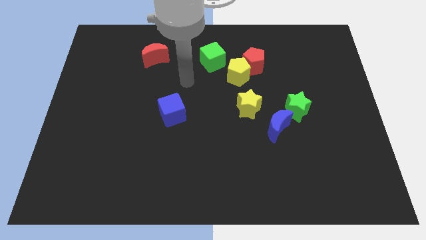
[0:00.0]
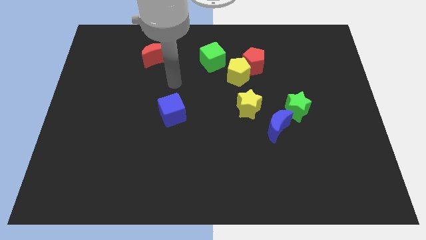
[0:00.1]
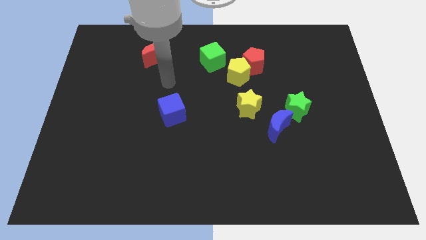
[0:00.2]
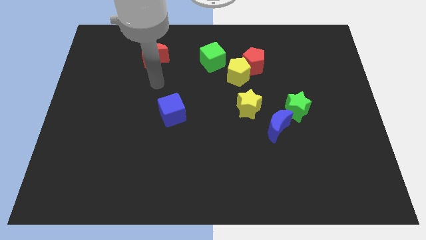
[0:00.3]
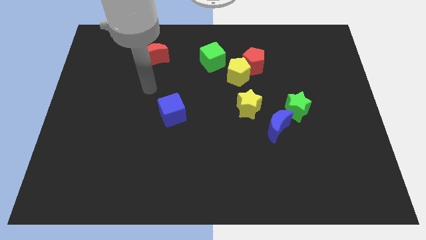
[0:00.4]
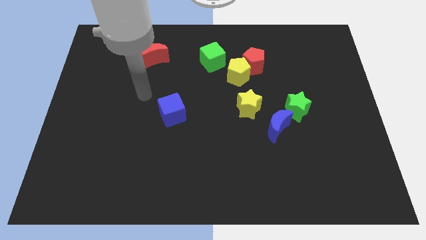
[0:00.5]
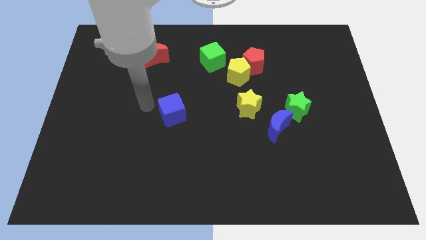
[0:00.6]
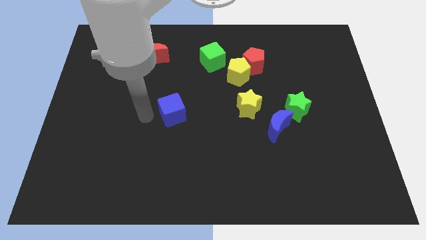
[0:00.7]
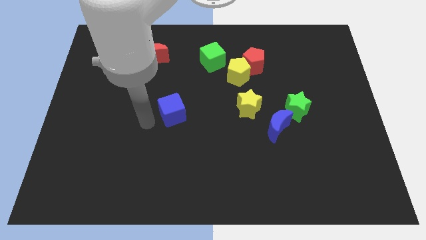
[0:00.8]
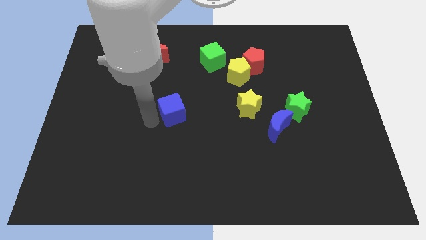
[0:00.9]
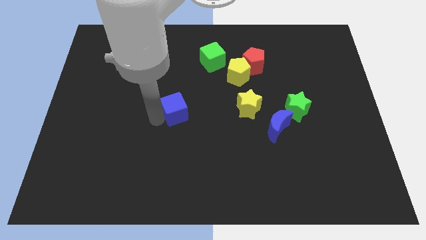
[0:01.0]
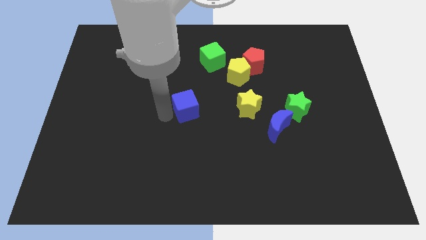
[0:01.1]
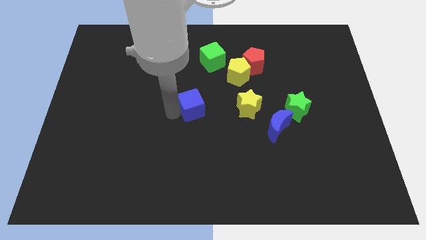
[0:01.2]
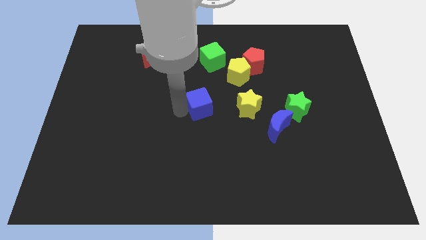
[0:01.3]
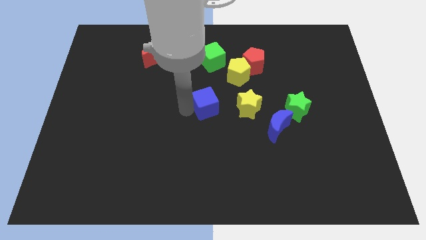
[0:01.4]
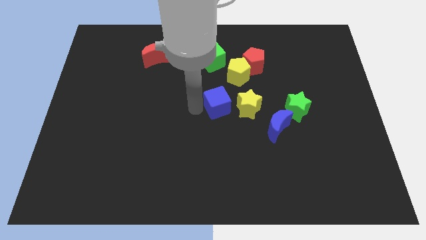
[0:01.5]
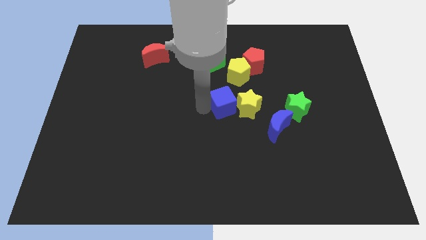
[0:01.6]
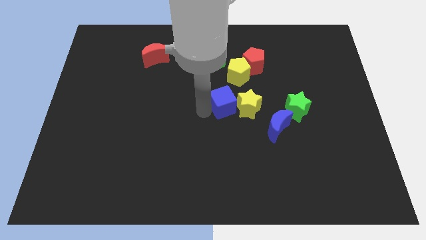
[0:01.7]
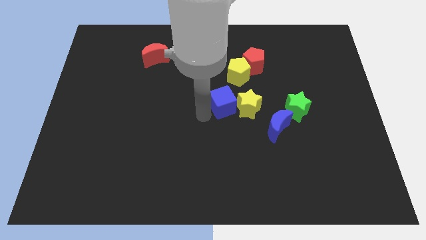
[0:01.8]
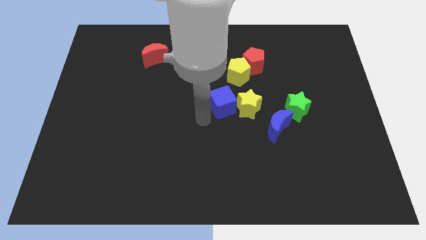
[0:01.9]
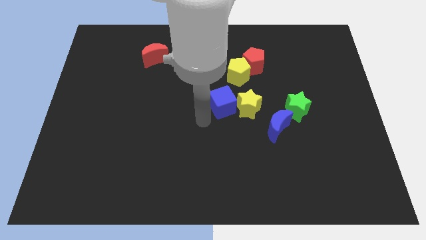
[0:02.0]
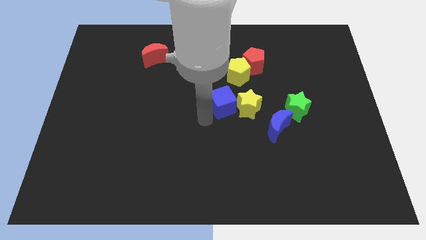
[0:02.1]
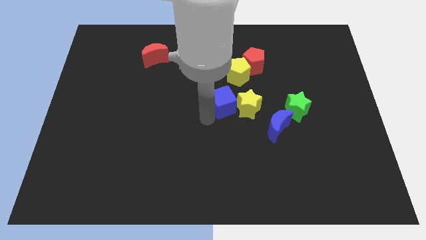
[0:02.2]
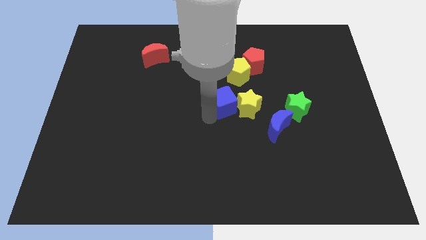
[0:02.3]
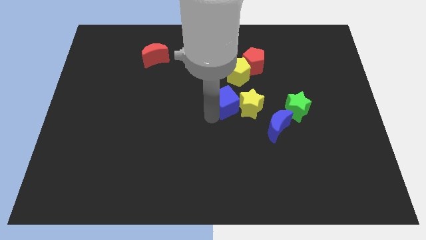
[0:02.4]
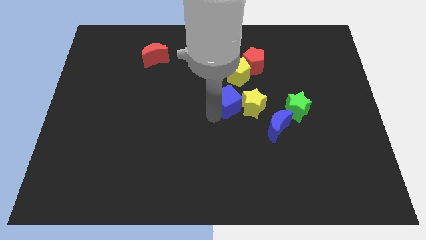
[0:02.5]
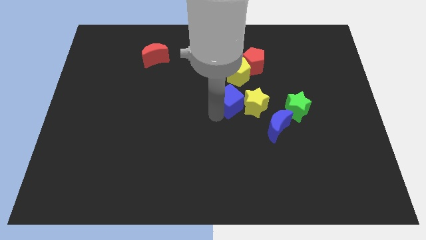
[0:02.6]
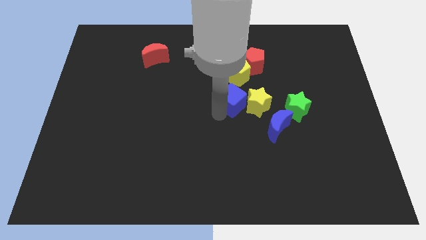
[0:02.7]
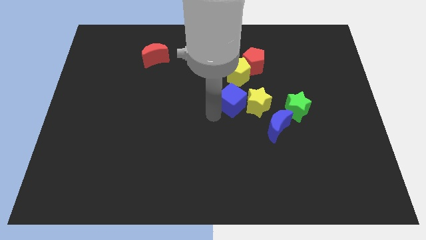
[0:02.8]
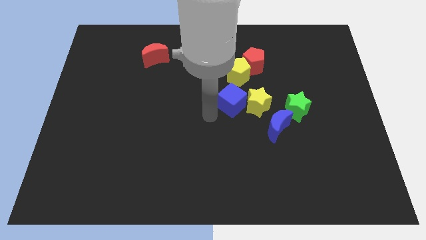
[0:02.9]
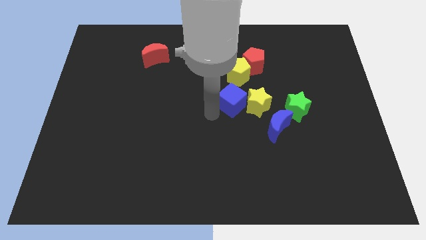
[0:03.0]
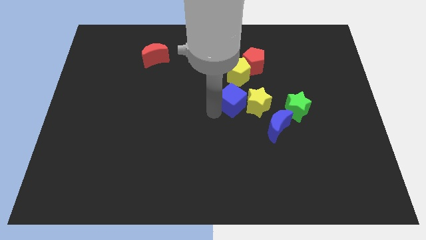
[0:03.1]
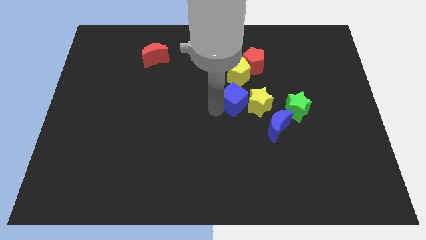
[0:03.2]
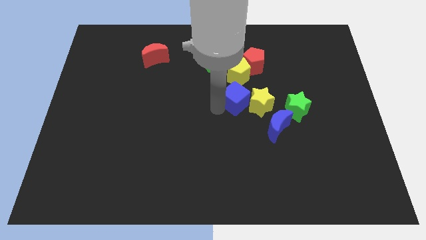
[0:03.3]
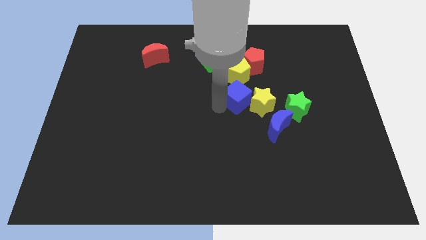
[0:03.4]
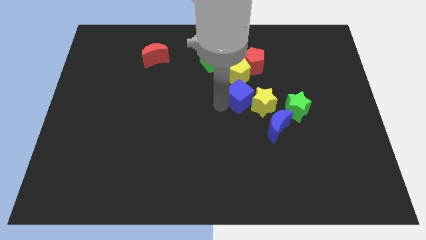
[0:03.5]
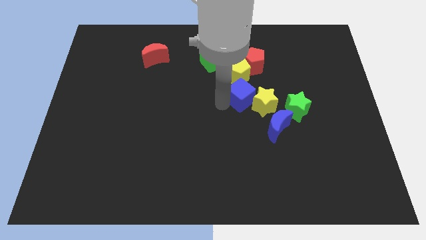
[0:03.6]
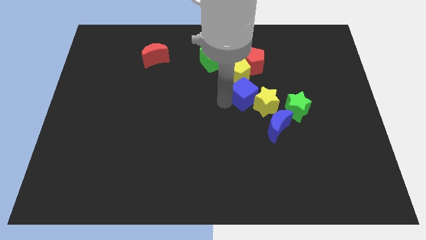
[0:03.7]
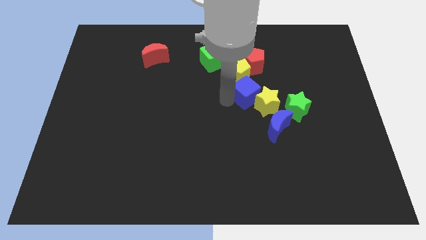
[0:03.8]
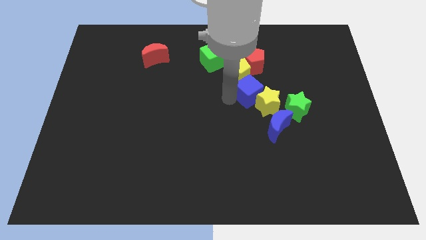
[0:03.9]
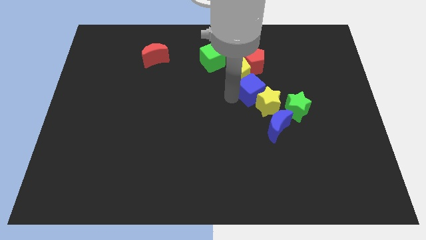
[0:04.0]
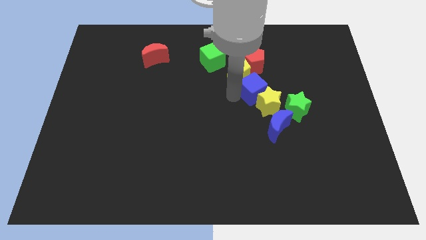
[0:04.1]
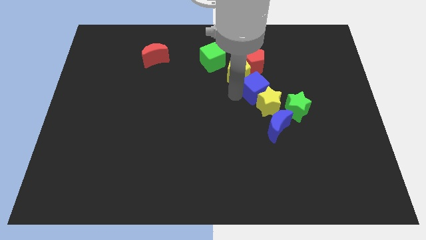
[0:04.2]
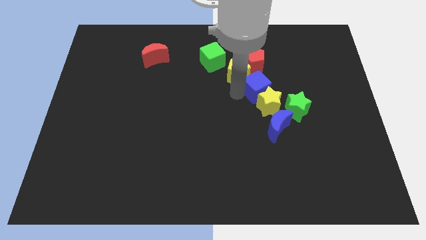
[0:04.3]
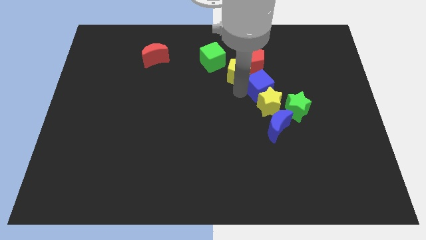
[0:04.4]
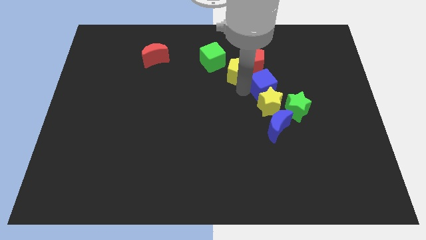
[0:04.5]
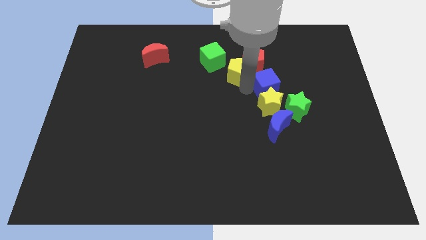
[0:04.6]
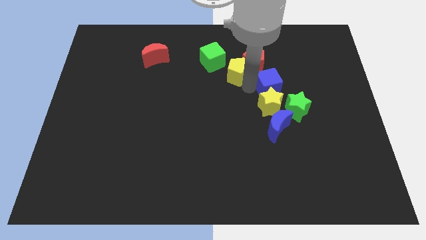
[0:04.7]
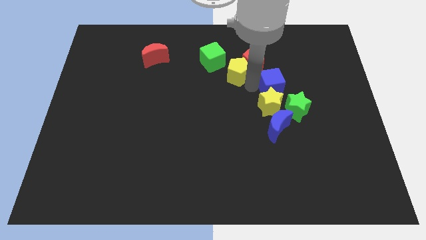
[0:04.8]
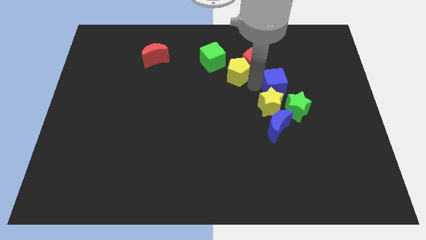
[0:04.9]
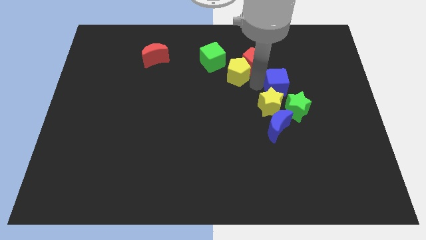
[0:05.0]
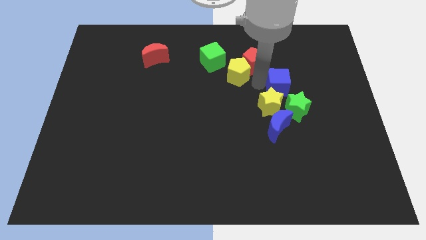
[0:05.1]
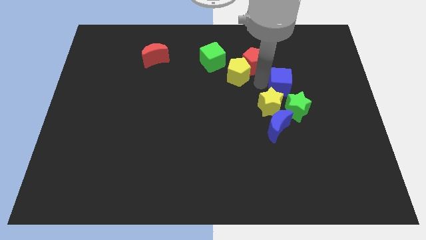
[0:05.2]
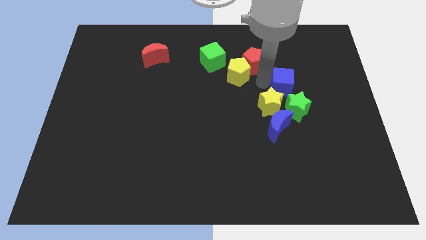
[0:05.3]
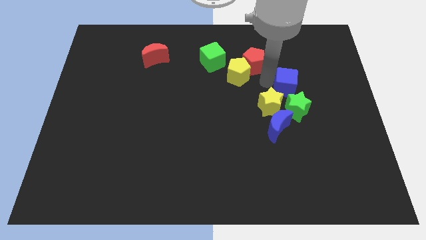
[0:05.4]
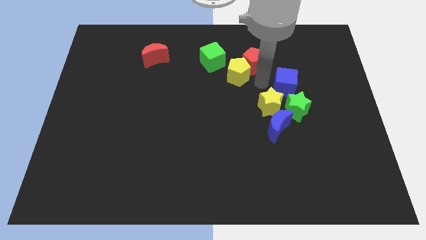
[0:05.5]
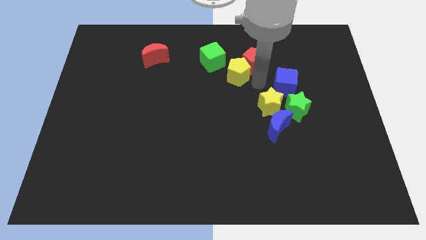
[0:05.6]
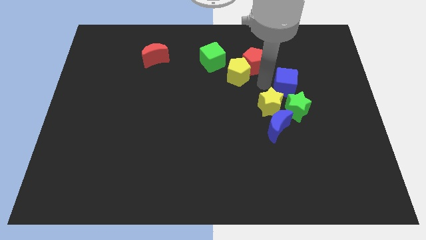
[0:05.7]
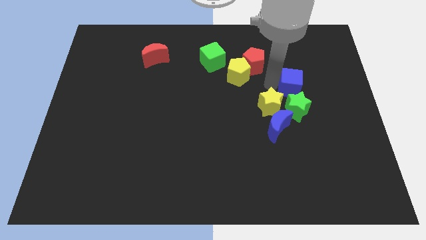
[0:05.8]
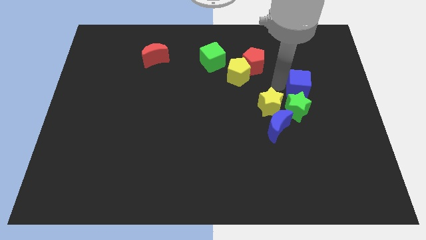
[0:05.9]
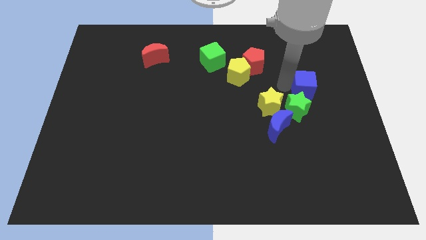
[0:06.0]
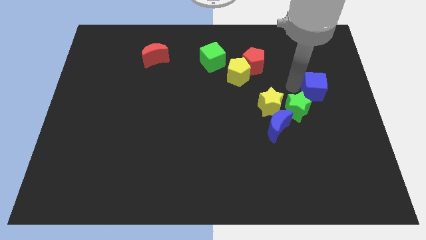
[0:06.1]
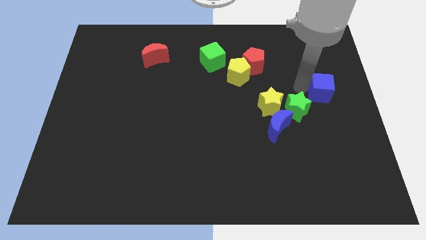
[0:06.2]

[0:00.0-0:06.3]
slide the blue cube to the right side of the board
